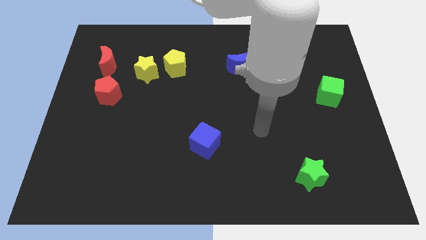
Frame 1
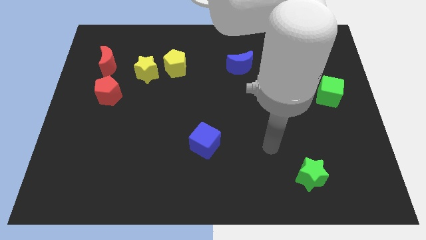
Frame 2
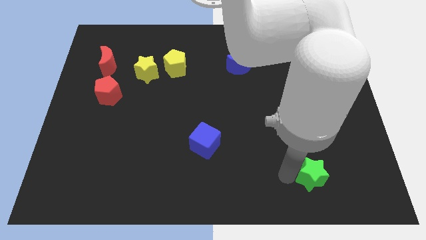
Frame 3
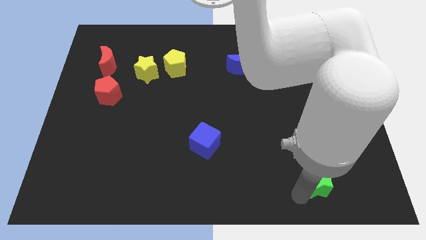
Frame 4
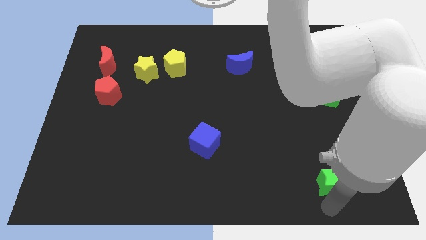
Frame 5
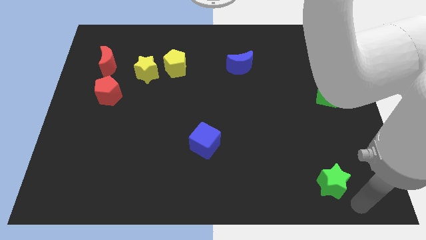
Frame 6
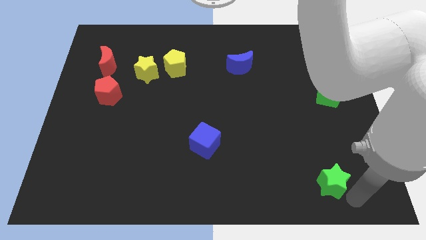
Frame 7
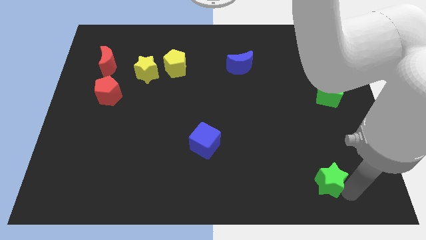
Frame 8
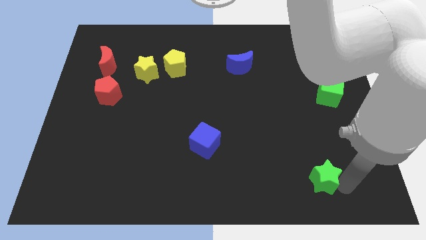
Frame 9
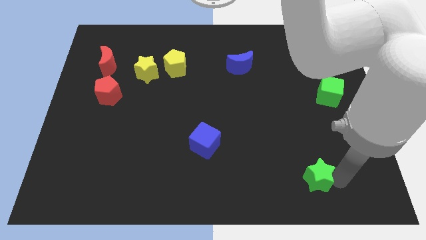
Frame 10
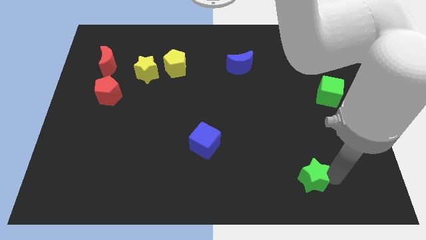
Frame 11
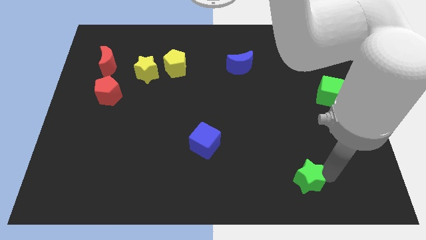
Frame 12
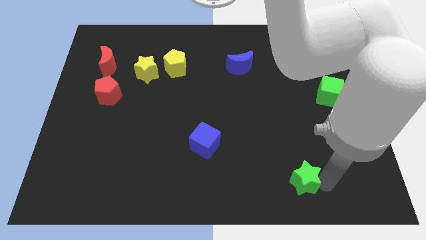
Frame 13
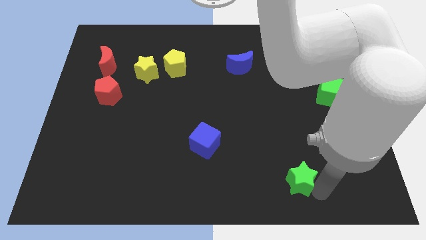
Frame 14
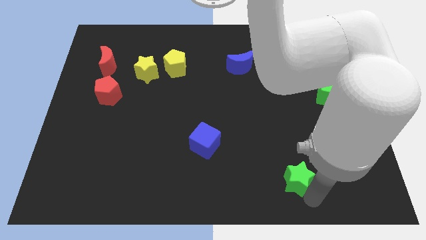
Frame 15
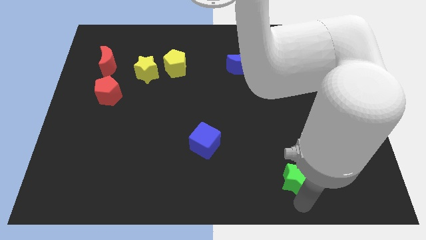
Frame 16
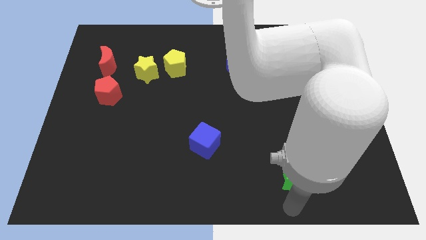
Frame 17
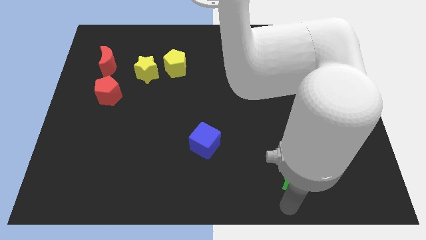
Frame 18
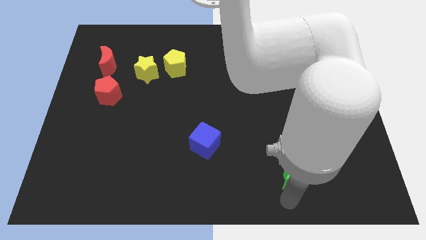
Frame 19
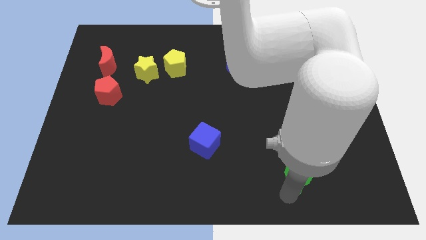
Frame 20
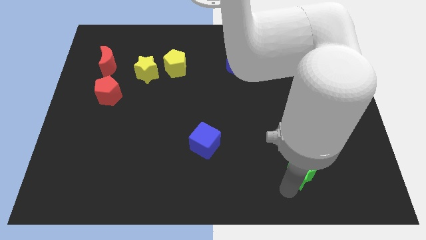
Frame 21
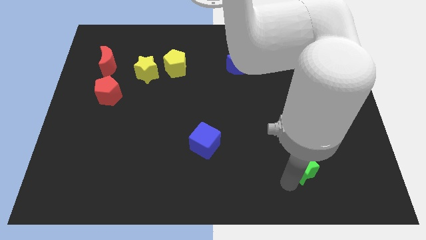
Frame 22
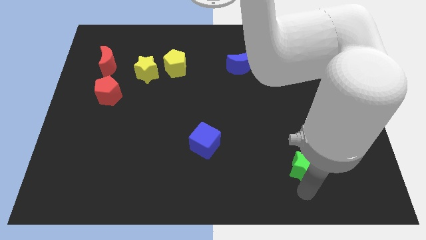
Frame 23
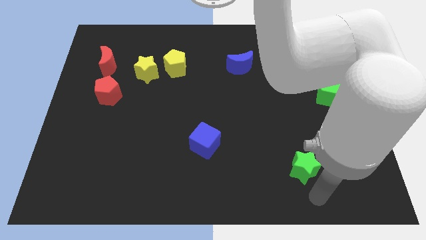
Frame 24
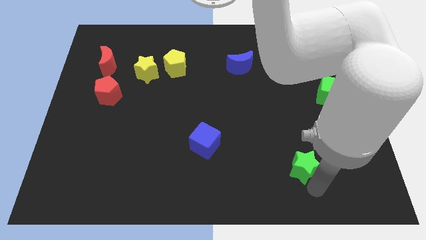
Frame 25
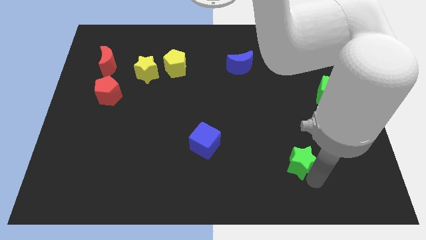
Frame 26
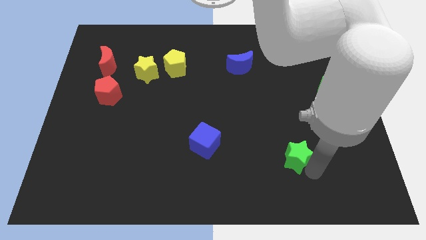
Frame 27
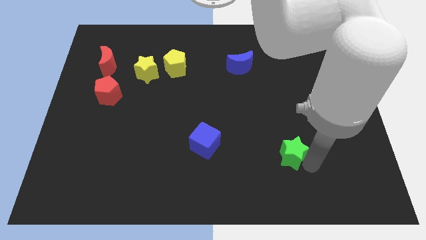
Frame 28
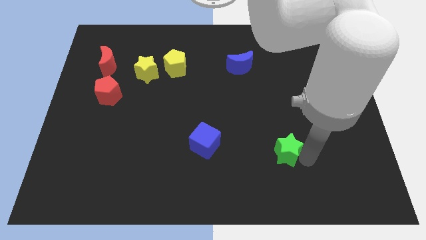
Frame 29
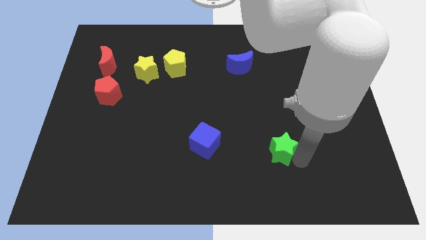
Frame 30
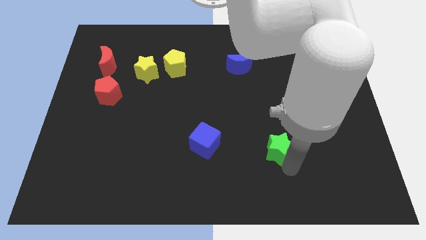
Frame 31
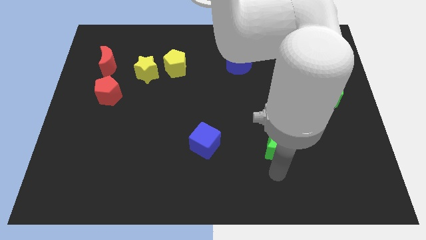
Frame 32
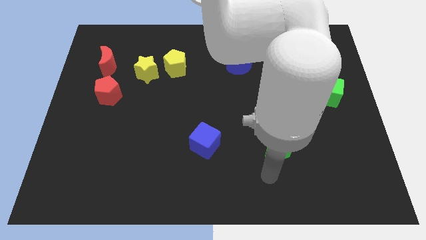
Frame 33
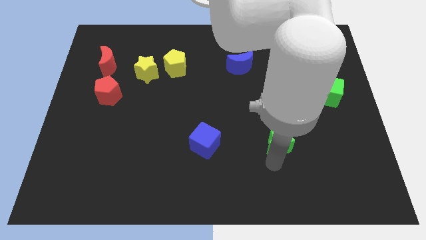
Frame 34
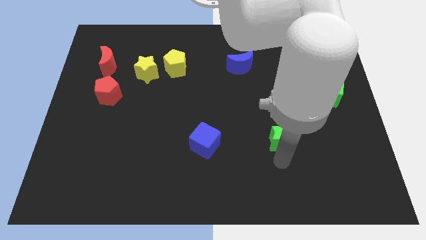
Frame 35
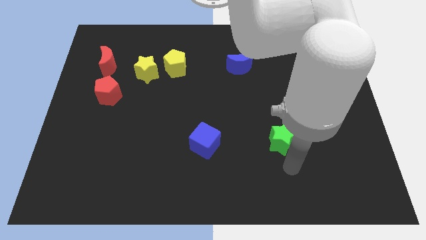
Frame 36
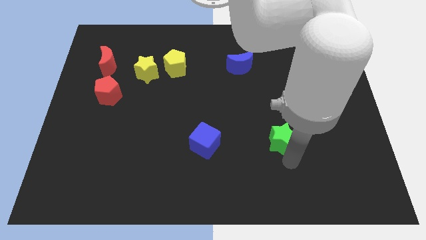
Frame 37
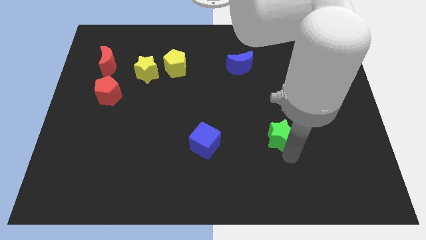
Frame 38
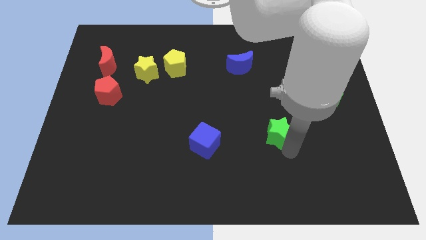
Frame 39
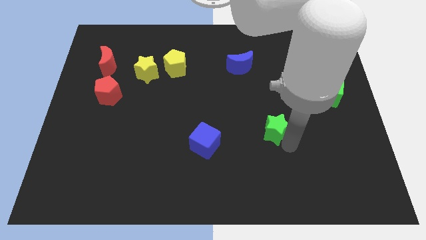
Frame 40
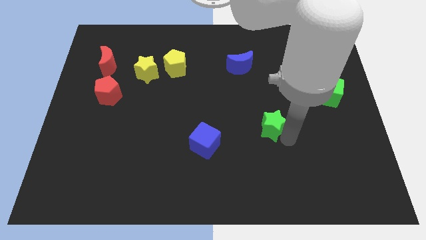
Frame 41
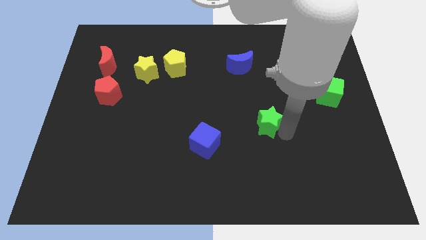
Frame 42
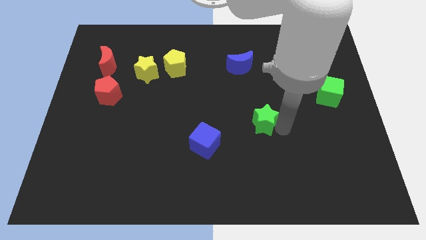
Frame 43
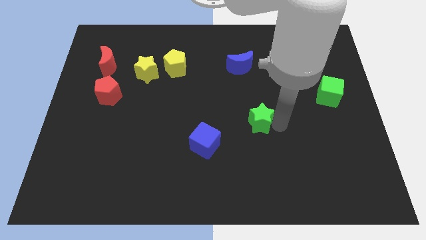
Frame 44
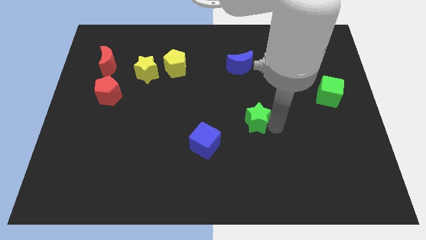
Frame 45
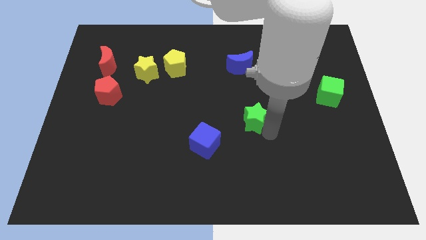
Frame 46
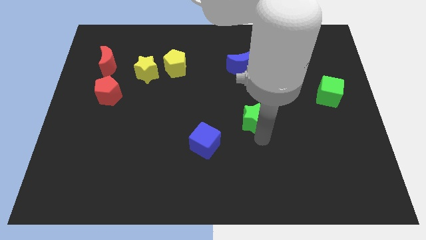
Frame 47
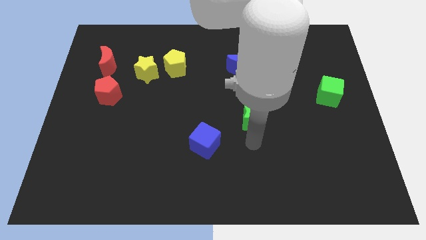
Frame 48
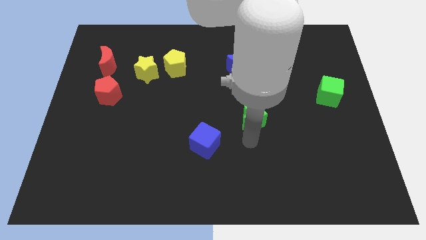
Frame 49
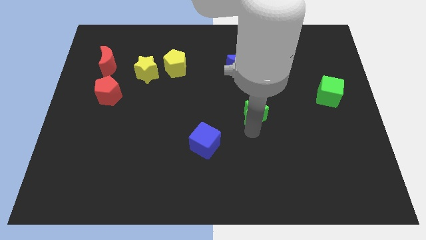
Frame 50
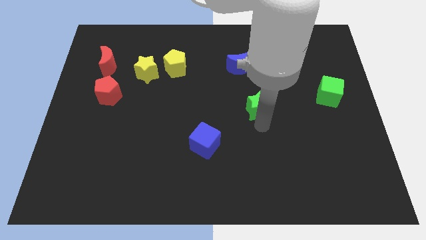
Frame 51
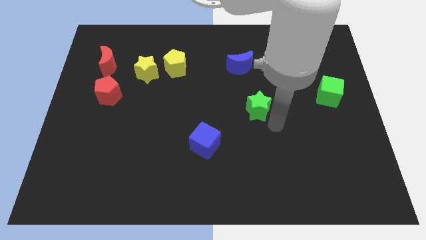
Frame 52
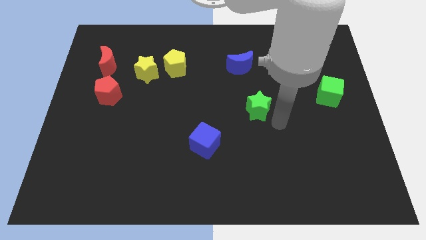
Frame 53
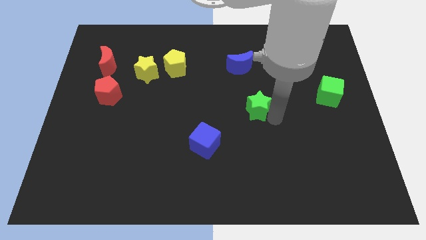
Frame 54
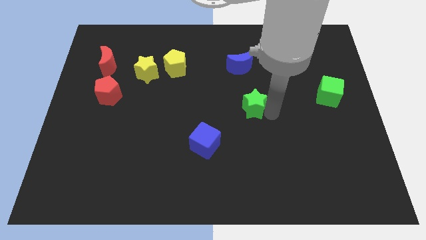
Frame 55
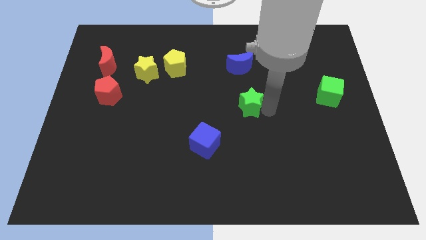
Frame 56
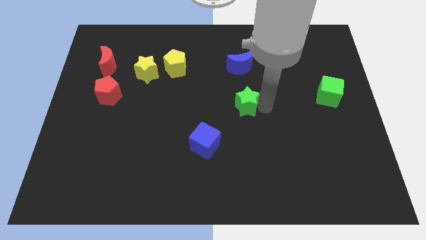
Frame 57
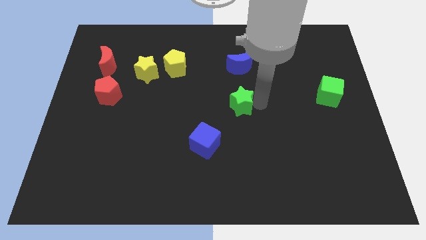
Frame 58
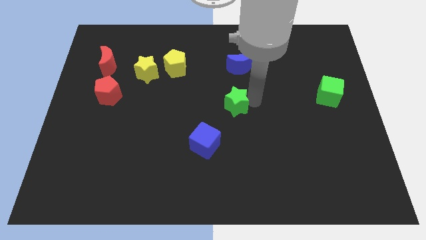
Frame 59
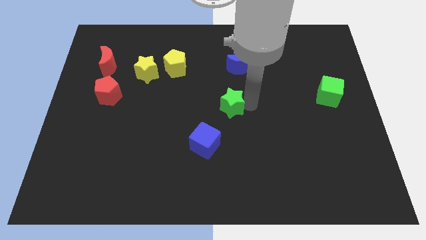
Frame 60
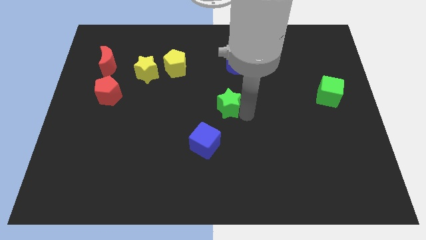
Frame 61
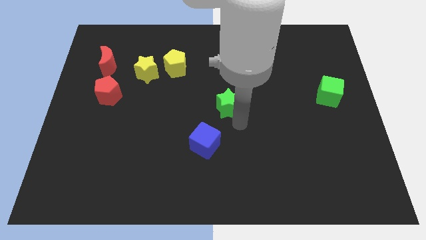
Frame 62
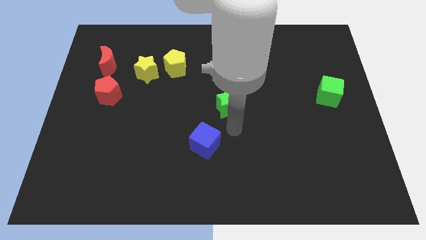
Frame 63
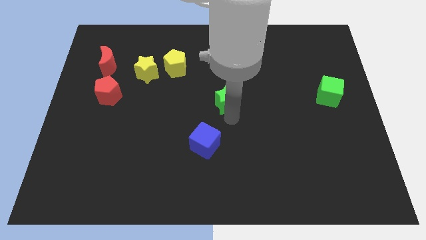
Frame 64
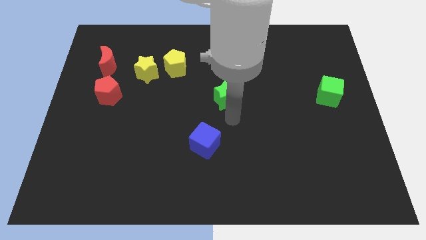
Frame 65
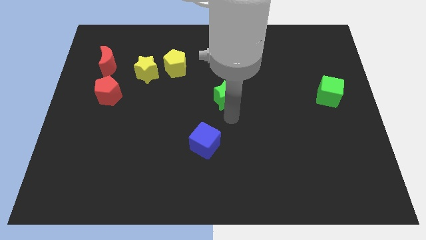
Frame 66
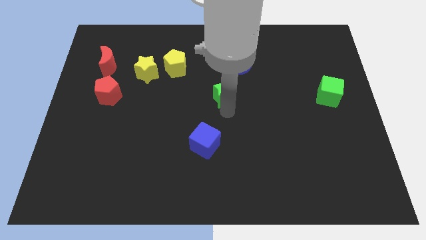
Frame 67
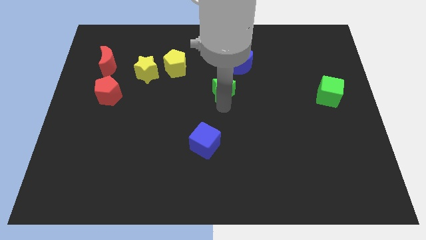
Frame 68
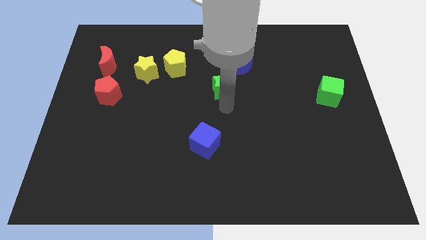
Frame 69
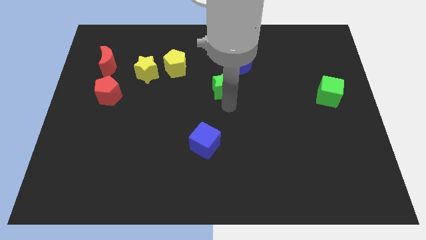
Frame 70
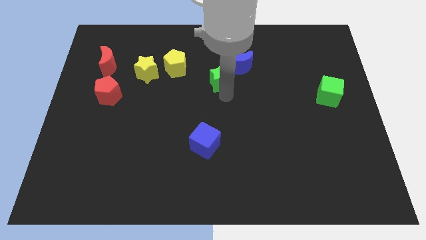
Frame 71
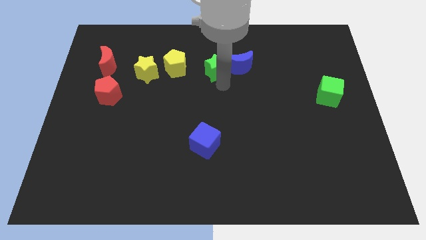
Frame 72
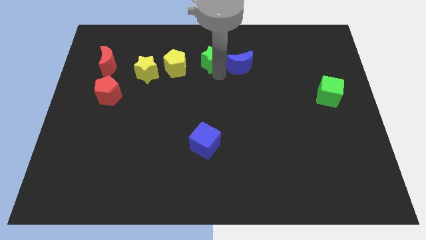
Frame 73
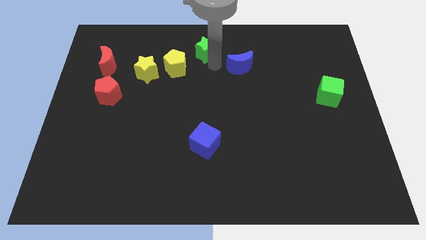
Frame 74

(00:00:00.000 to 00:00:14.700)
slide the green star to the top
